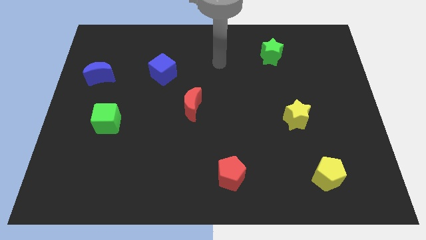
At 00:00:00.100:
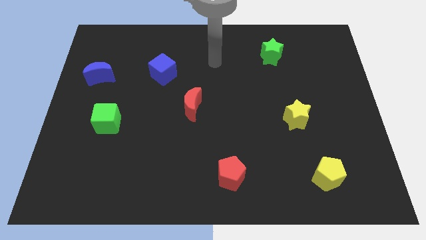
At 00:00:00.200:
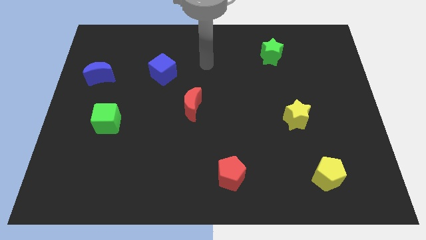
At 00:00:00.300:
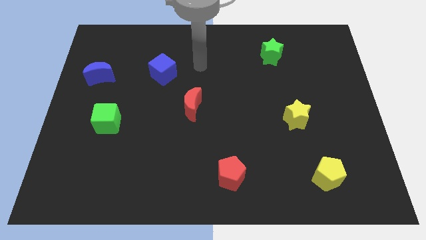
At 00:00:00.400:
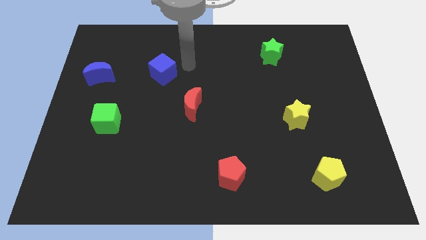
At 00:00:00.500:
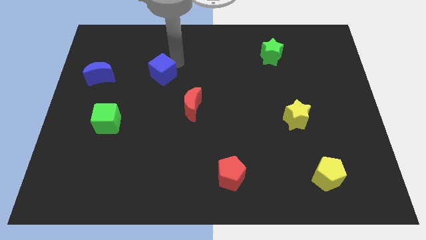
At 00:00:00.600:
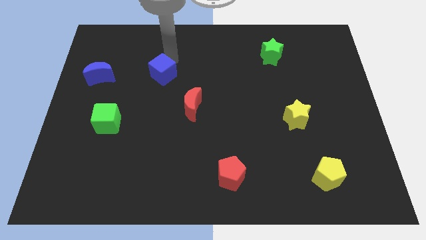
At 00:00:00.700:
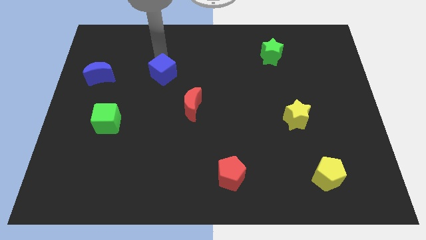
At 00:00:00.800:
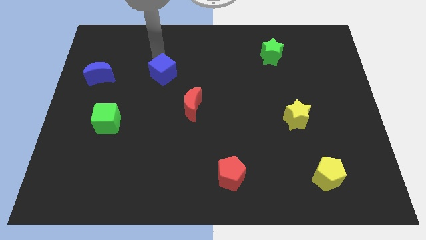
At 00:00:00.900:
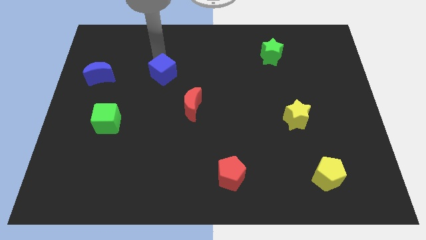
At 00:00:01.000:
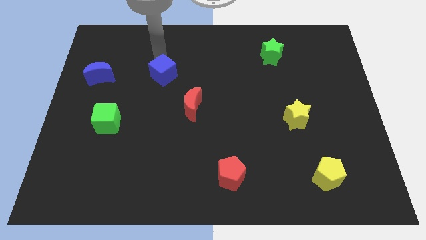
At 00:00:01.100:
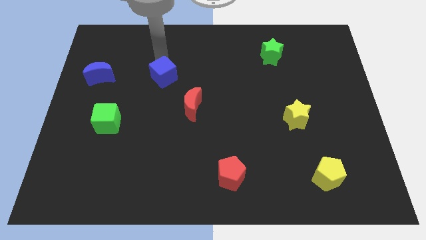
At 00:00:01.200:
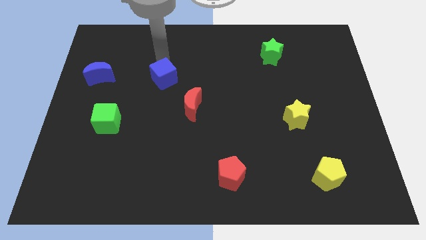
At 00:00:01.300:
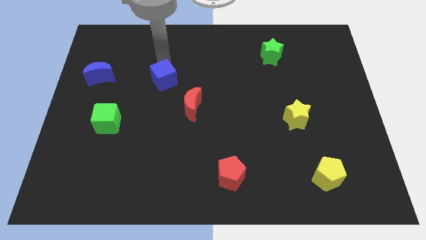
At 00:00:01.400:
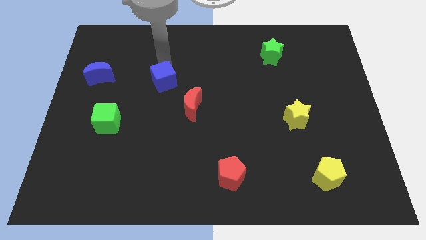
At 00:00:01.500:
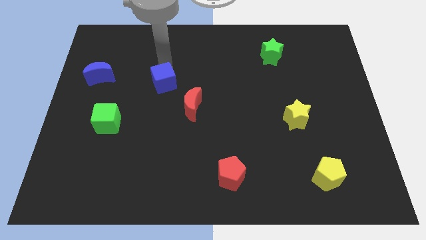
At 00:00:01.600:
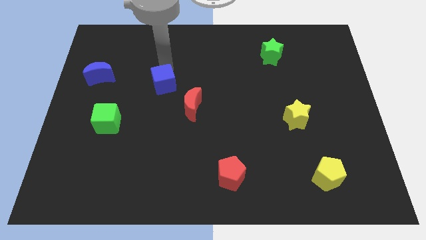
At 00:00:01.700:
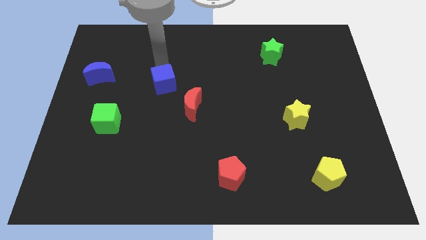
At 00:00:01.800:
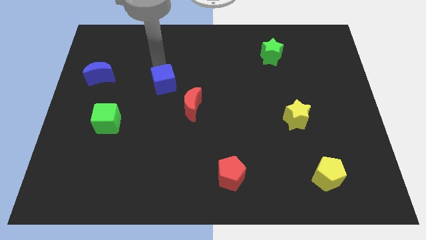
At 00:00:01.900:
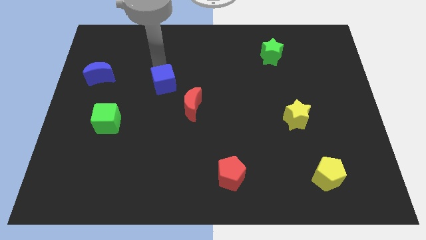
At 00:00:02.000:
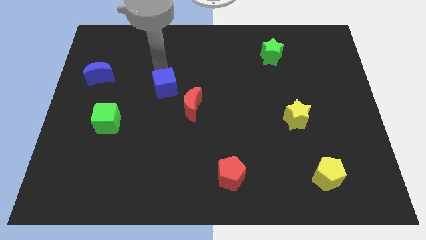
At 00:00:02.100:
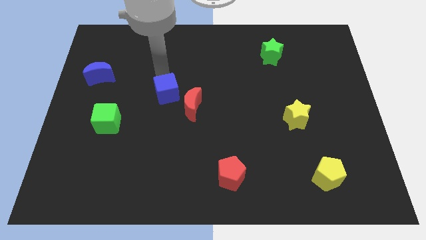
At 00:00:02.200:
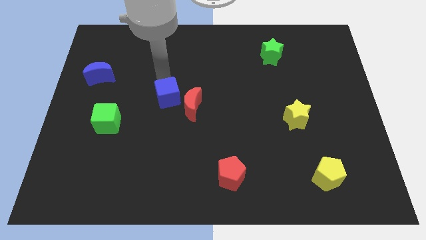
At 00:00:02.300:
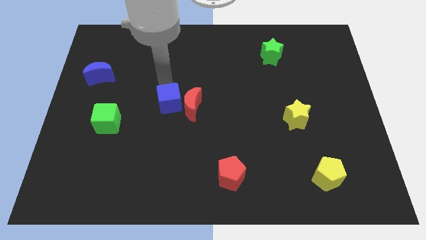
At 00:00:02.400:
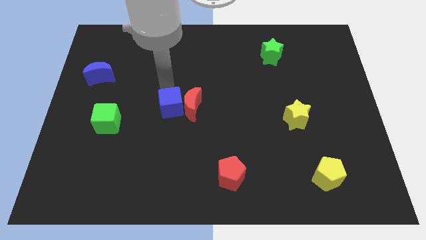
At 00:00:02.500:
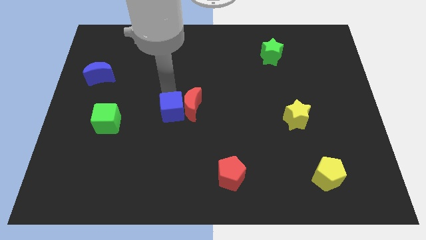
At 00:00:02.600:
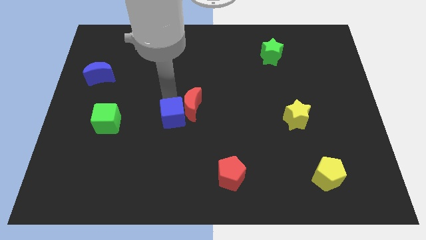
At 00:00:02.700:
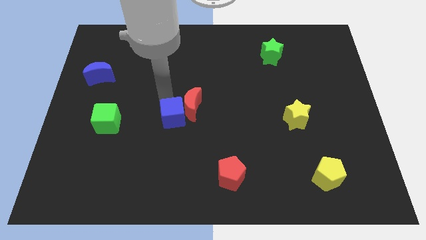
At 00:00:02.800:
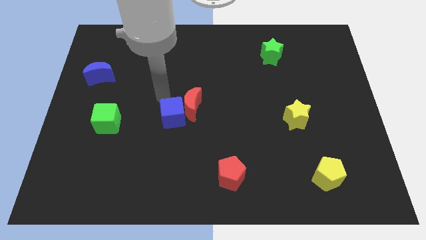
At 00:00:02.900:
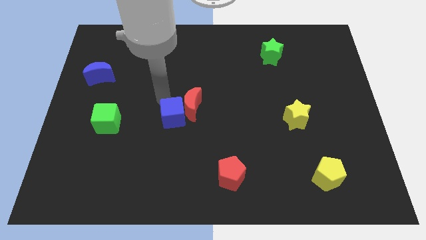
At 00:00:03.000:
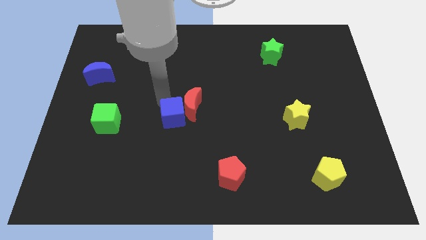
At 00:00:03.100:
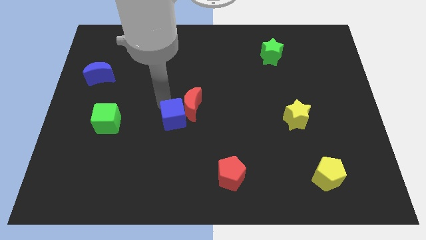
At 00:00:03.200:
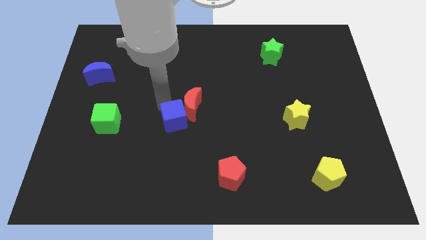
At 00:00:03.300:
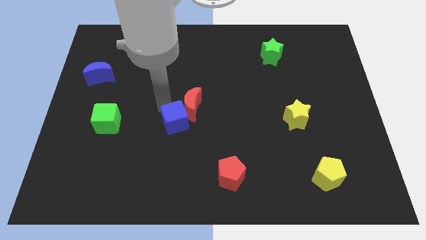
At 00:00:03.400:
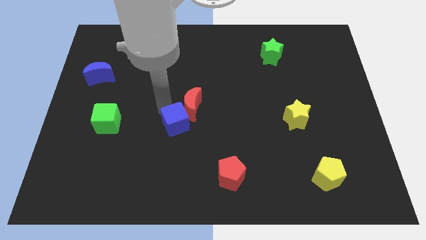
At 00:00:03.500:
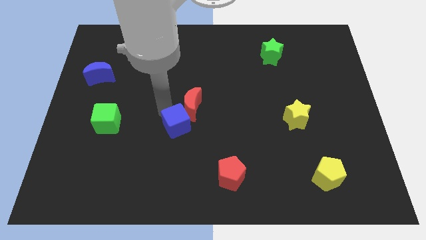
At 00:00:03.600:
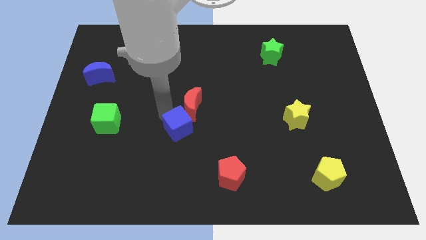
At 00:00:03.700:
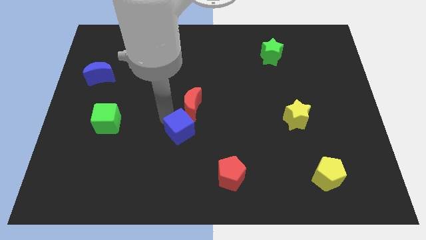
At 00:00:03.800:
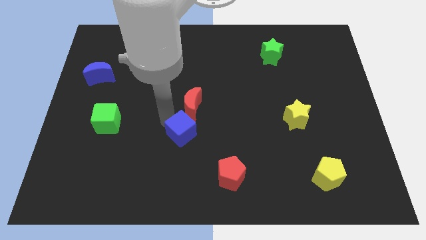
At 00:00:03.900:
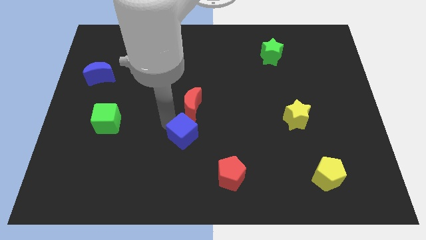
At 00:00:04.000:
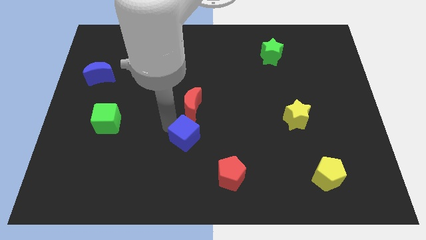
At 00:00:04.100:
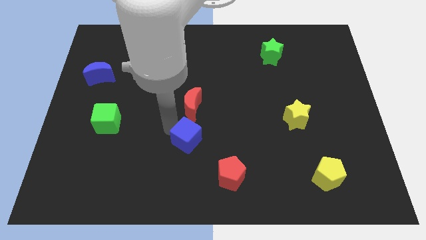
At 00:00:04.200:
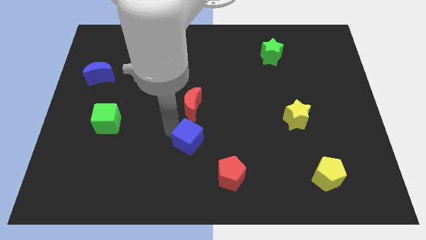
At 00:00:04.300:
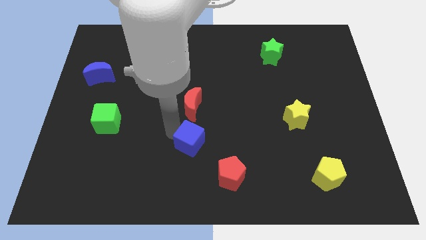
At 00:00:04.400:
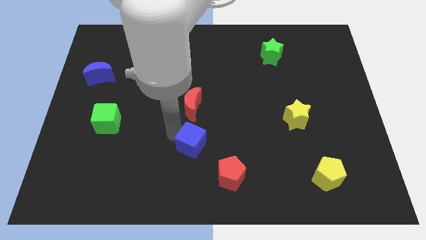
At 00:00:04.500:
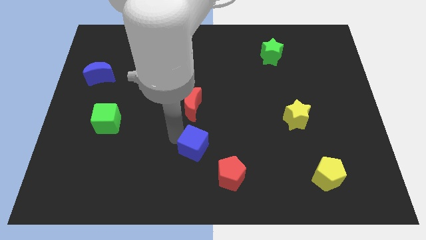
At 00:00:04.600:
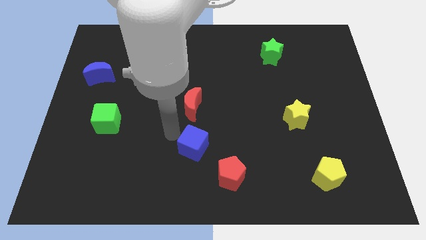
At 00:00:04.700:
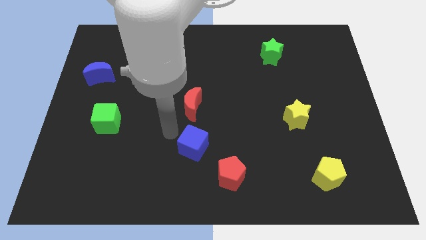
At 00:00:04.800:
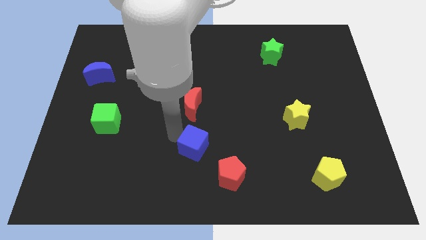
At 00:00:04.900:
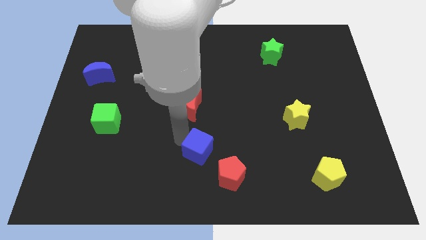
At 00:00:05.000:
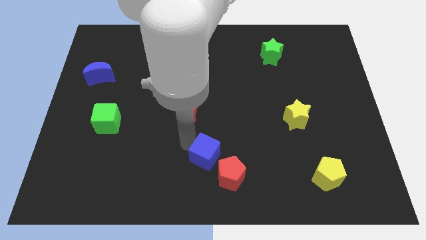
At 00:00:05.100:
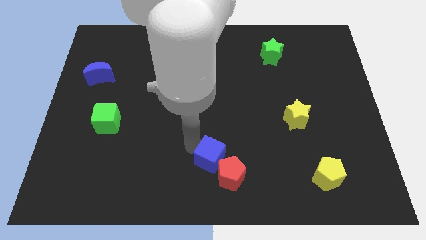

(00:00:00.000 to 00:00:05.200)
move the blue cube towards the red pentagon

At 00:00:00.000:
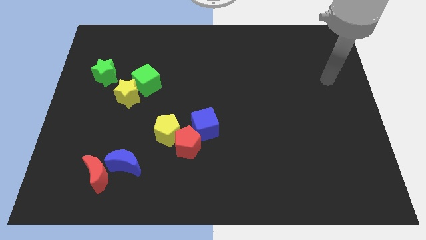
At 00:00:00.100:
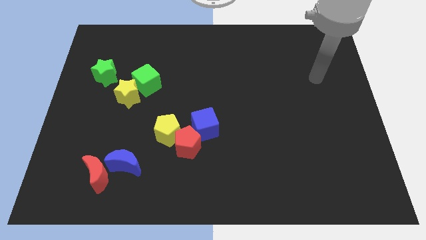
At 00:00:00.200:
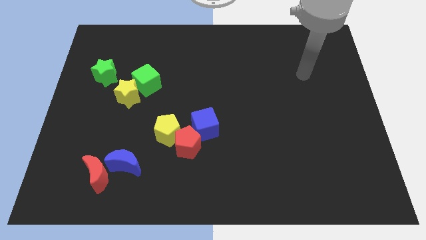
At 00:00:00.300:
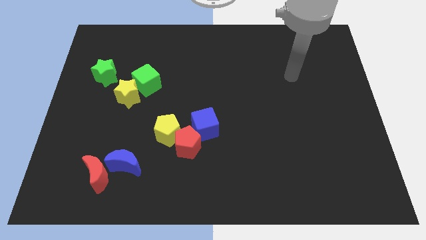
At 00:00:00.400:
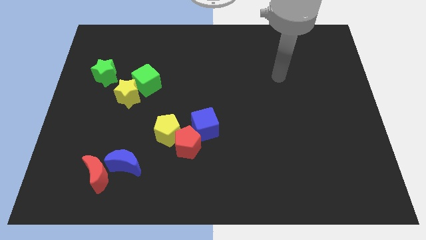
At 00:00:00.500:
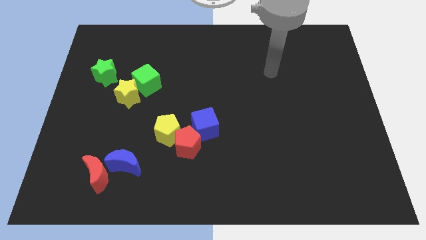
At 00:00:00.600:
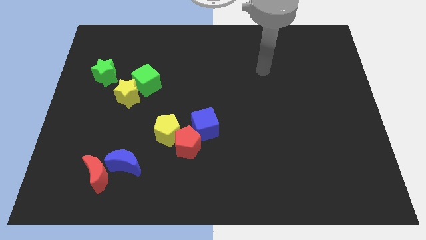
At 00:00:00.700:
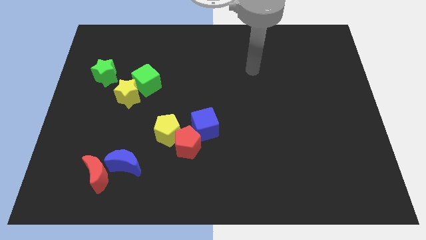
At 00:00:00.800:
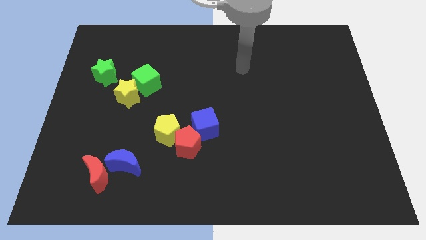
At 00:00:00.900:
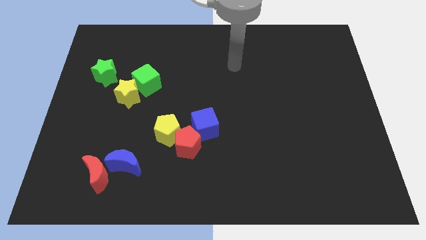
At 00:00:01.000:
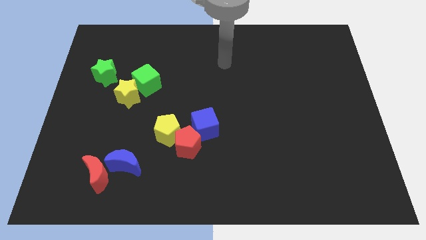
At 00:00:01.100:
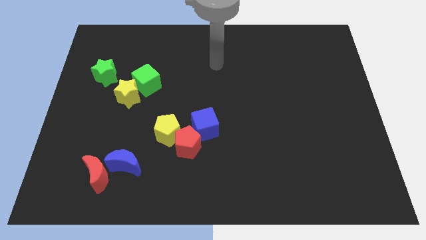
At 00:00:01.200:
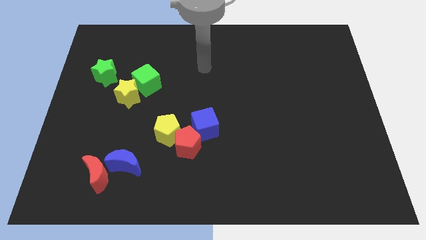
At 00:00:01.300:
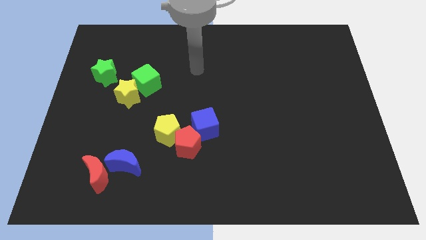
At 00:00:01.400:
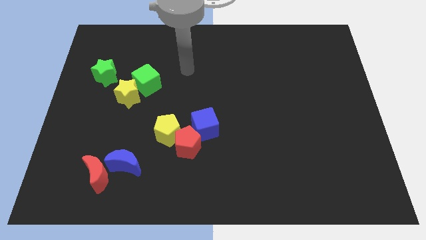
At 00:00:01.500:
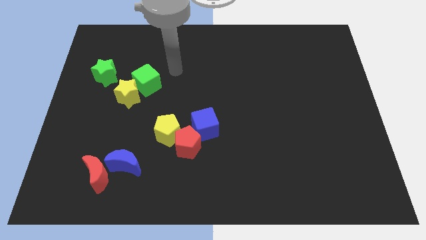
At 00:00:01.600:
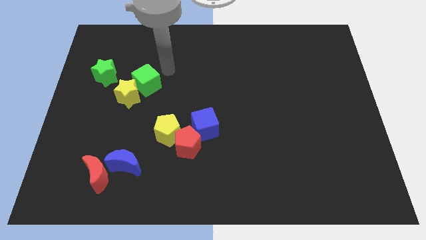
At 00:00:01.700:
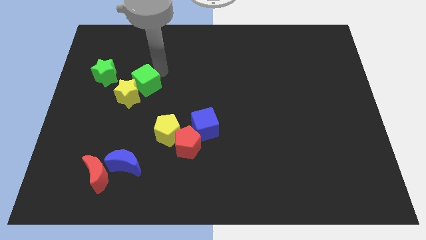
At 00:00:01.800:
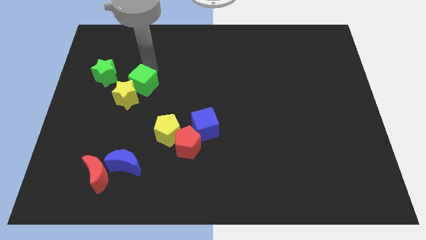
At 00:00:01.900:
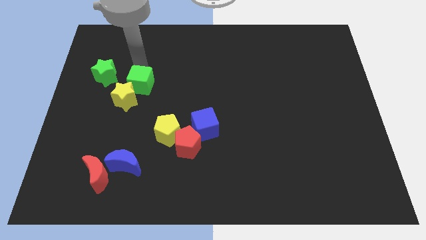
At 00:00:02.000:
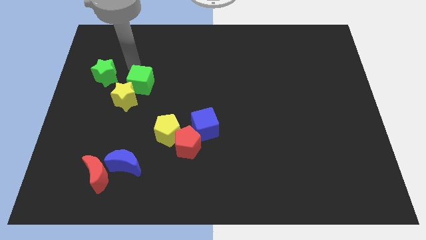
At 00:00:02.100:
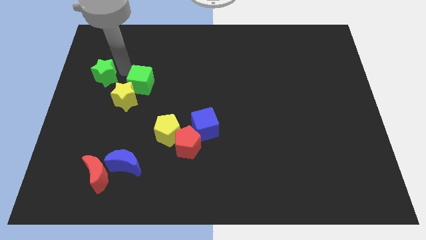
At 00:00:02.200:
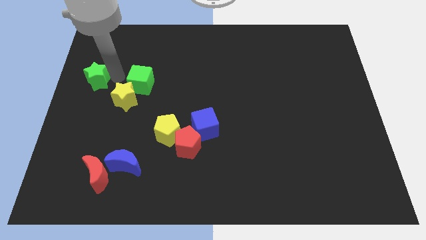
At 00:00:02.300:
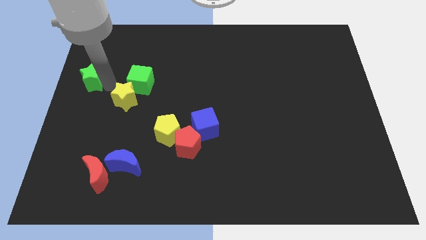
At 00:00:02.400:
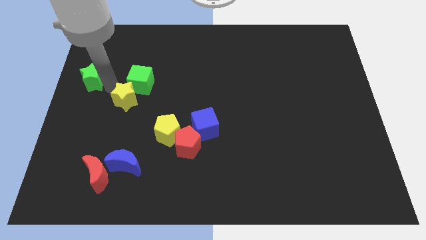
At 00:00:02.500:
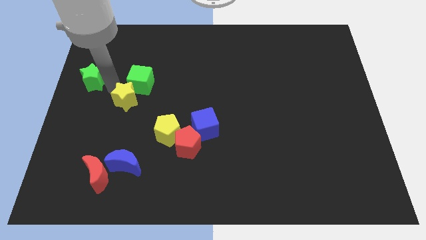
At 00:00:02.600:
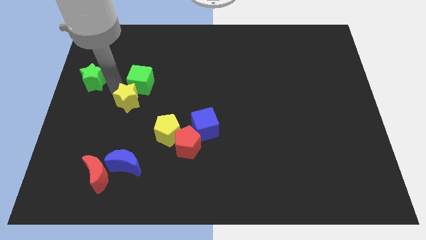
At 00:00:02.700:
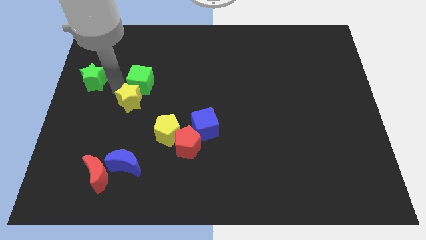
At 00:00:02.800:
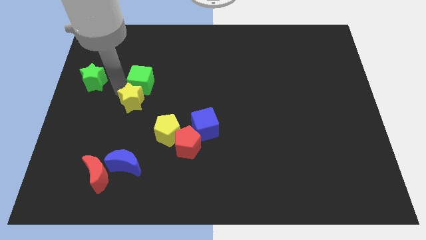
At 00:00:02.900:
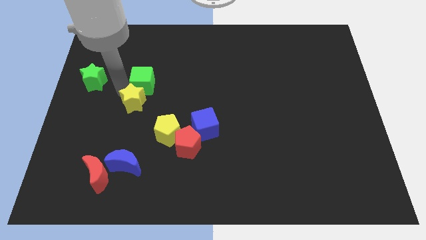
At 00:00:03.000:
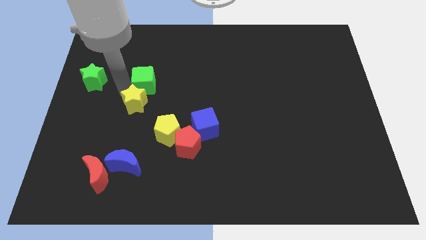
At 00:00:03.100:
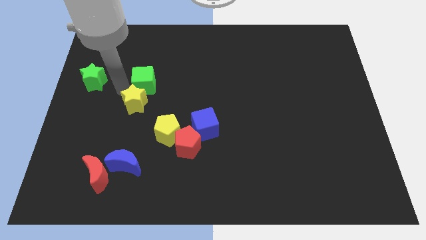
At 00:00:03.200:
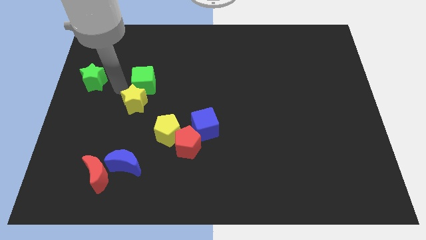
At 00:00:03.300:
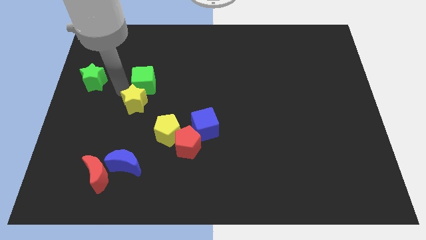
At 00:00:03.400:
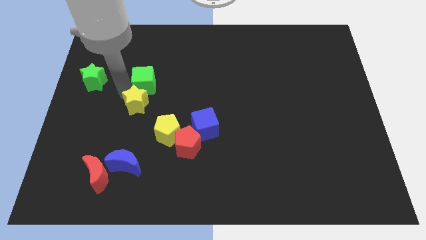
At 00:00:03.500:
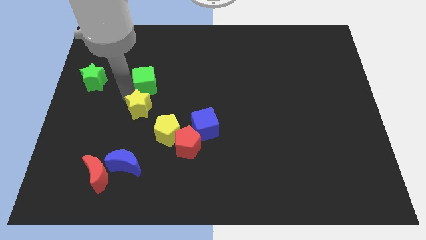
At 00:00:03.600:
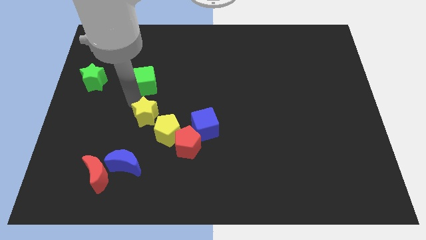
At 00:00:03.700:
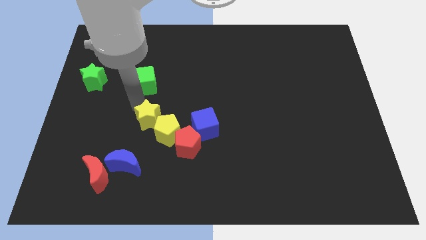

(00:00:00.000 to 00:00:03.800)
slide the yellow star next to the yellow pentagon
